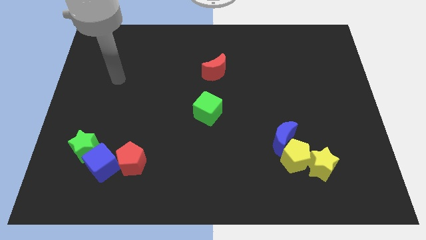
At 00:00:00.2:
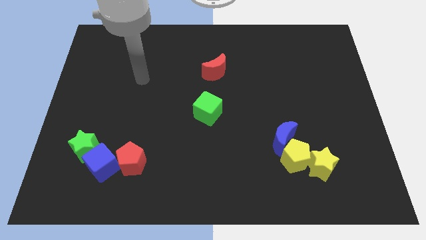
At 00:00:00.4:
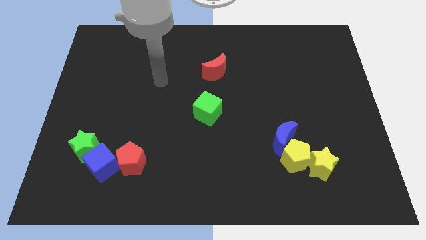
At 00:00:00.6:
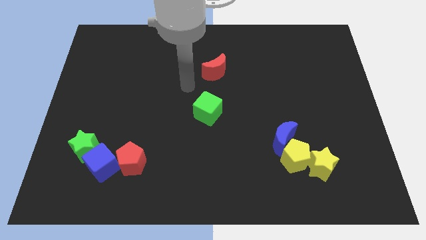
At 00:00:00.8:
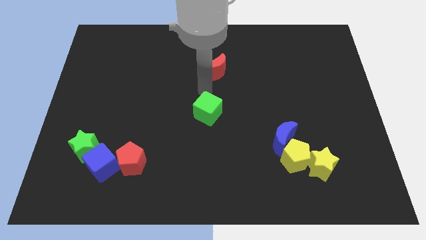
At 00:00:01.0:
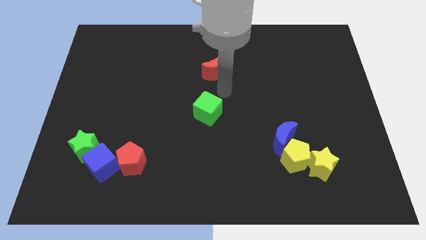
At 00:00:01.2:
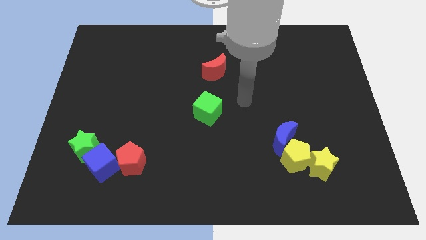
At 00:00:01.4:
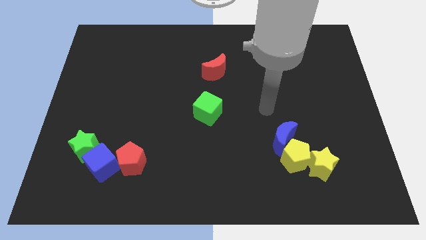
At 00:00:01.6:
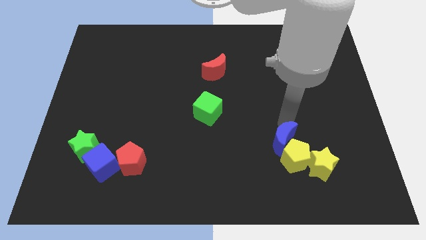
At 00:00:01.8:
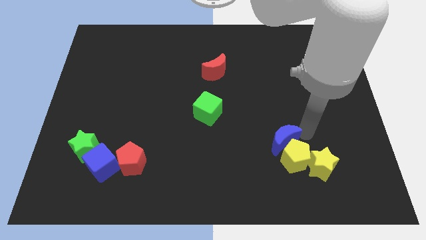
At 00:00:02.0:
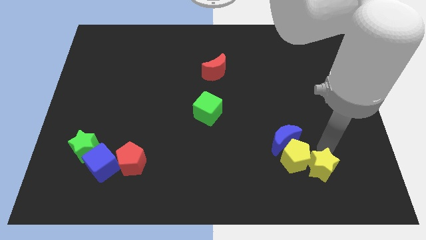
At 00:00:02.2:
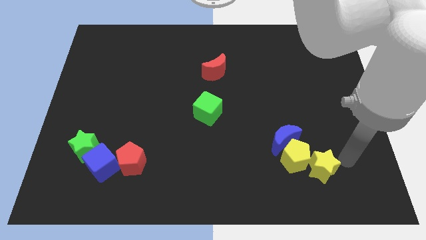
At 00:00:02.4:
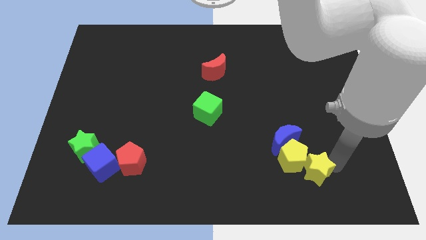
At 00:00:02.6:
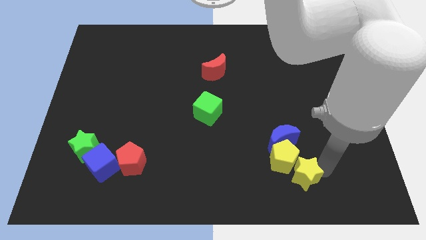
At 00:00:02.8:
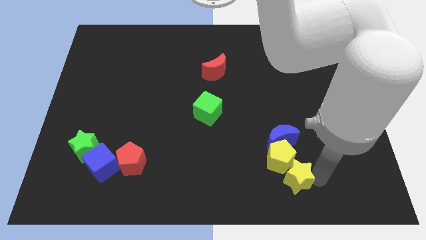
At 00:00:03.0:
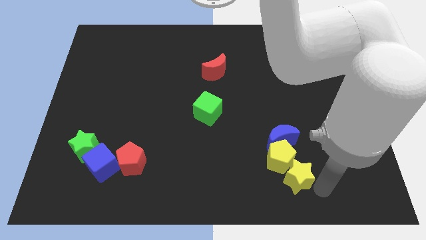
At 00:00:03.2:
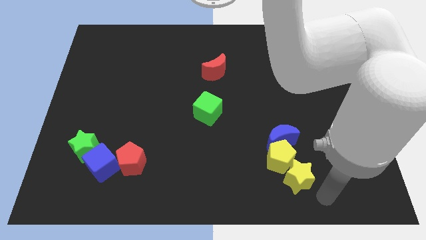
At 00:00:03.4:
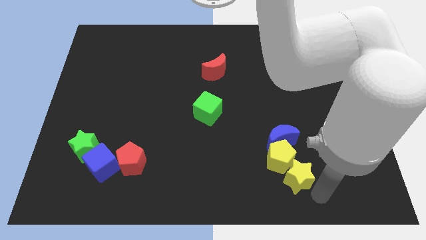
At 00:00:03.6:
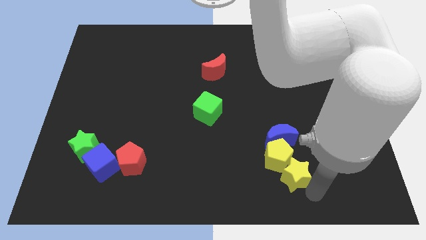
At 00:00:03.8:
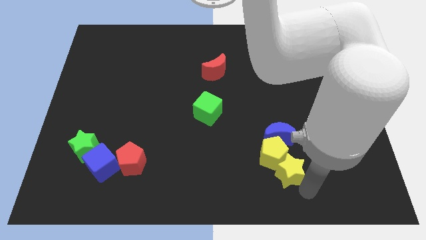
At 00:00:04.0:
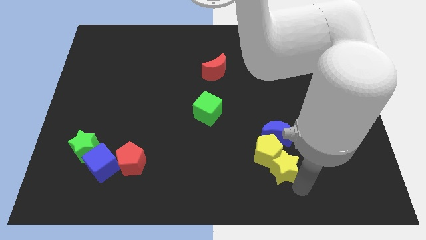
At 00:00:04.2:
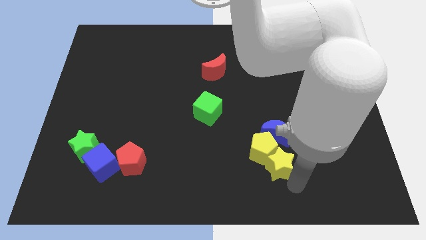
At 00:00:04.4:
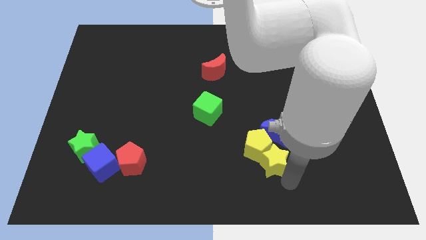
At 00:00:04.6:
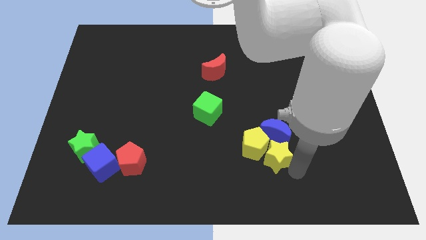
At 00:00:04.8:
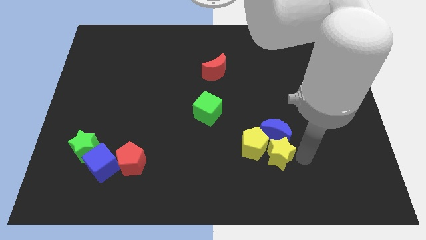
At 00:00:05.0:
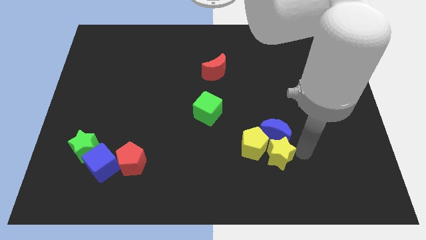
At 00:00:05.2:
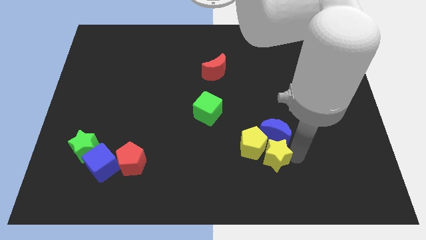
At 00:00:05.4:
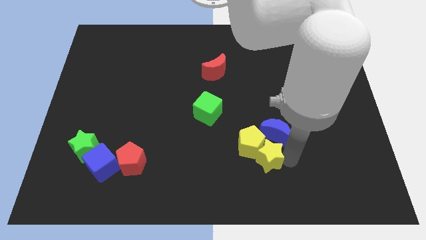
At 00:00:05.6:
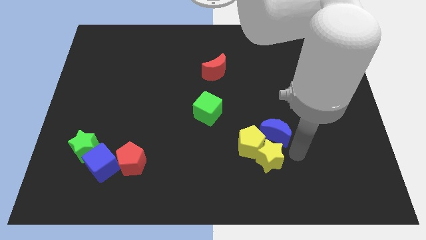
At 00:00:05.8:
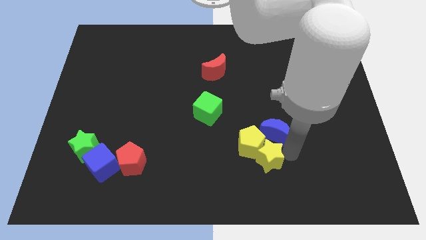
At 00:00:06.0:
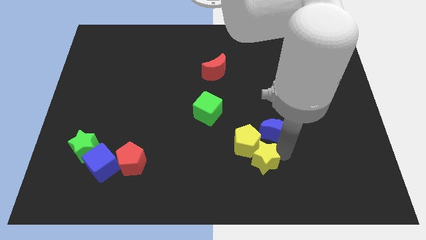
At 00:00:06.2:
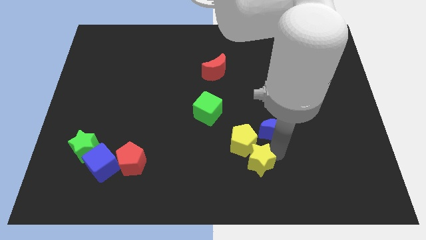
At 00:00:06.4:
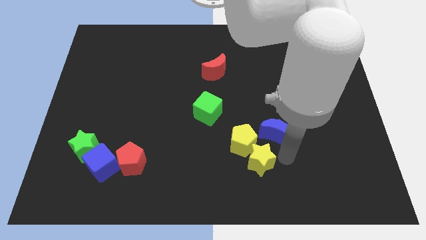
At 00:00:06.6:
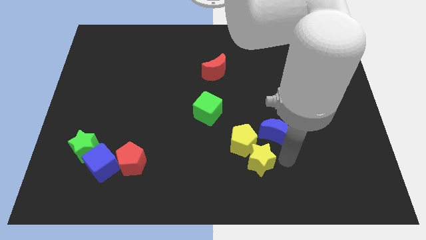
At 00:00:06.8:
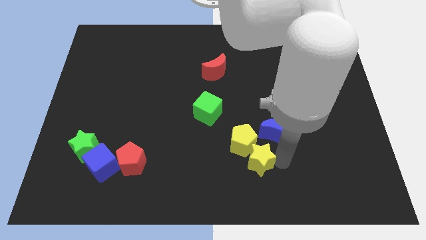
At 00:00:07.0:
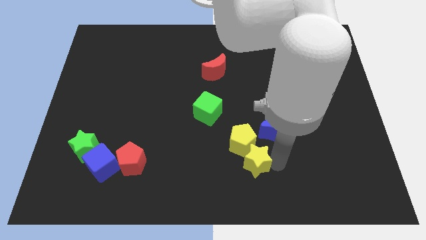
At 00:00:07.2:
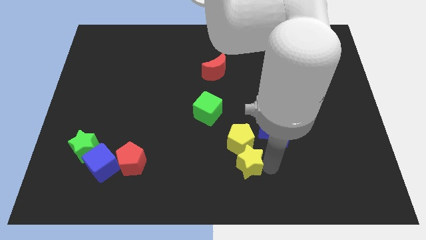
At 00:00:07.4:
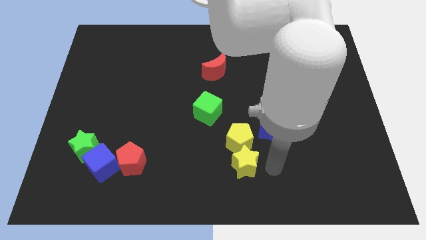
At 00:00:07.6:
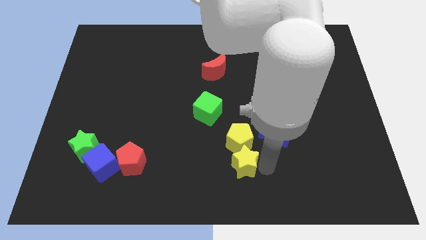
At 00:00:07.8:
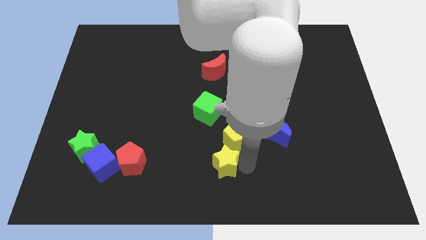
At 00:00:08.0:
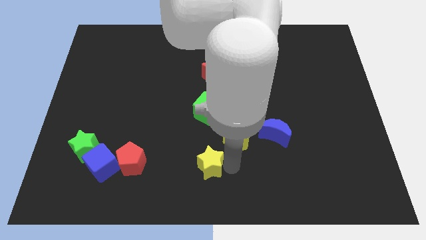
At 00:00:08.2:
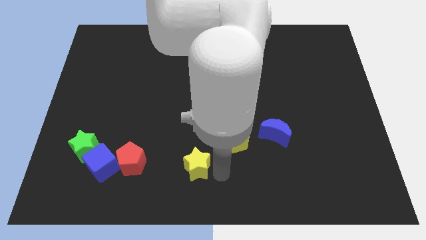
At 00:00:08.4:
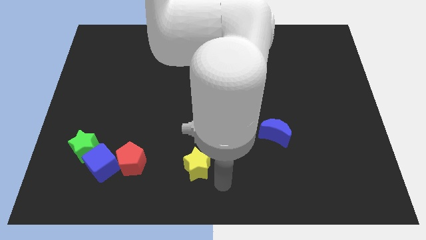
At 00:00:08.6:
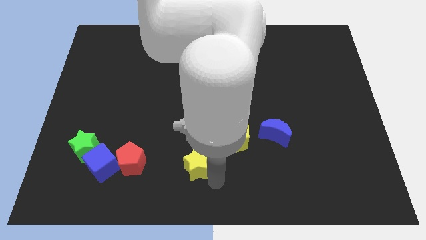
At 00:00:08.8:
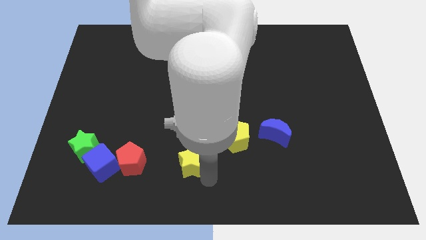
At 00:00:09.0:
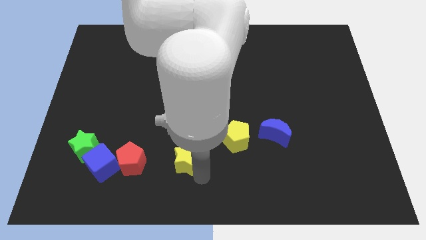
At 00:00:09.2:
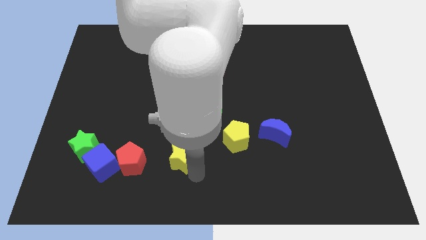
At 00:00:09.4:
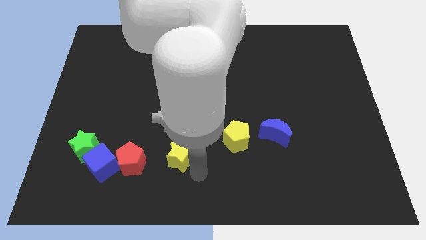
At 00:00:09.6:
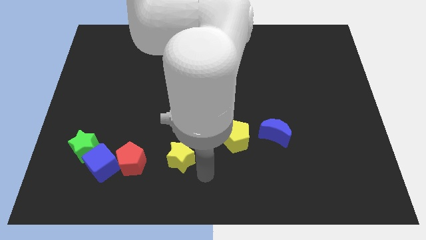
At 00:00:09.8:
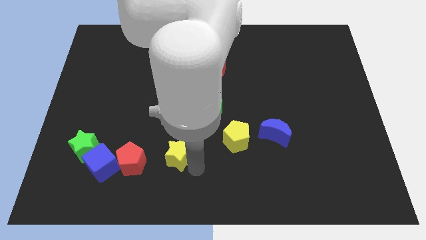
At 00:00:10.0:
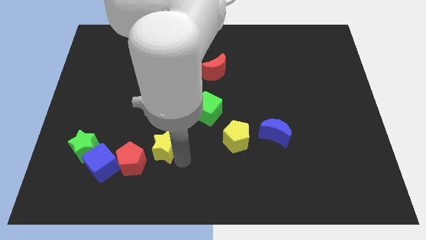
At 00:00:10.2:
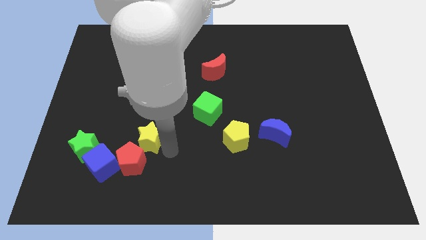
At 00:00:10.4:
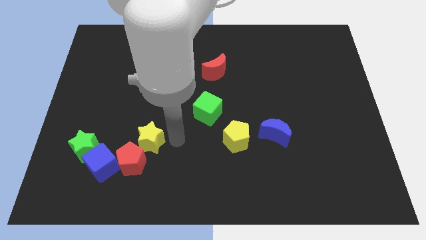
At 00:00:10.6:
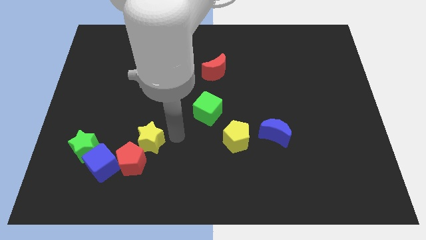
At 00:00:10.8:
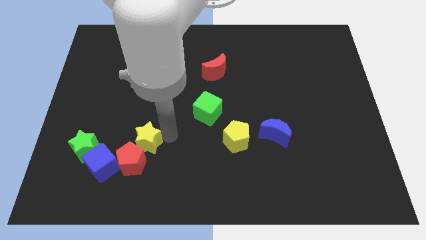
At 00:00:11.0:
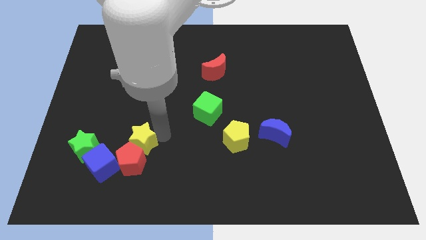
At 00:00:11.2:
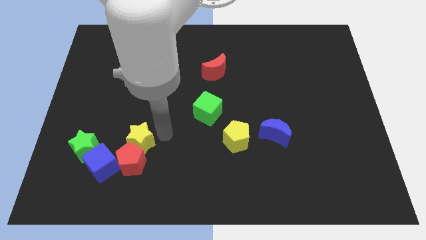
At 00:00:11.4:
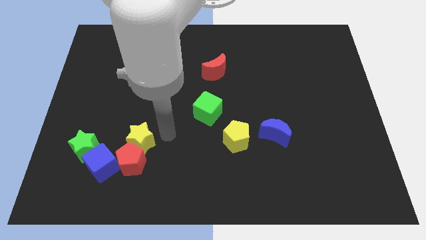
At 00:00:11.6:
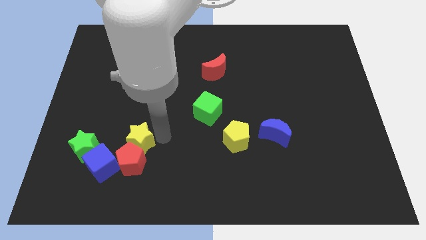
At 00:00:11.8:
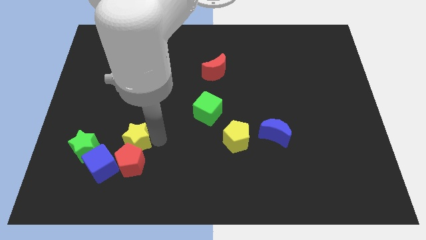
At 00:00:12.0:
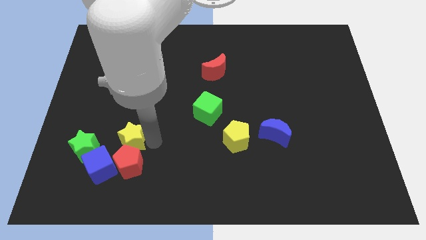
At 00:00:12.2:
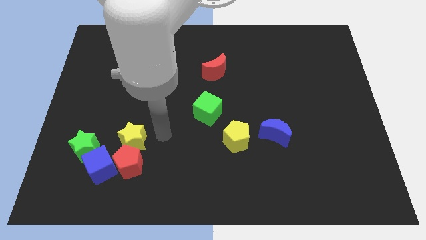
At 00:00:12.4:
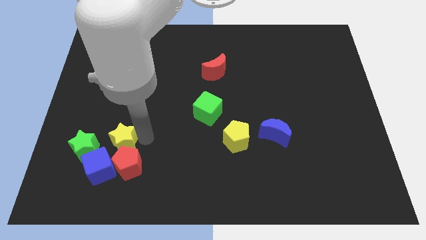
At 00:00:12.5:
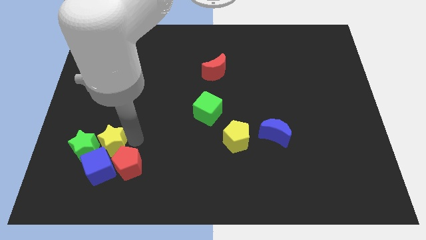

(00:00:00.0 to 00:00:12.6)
push the yellow star next to the green star

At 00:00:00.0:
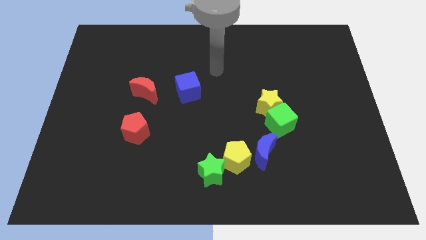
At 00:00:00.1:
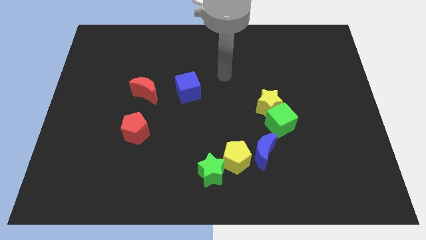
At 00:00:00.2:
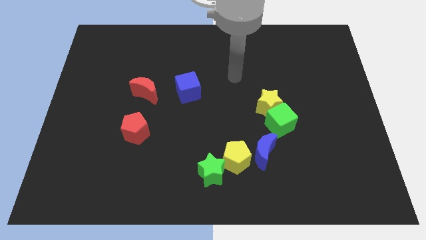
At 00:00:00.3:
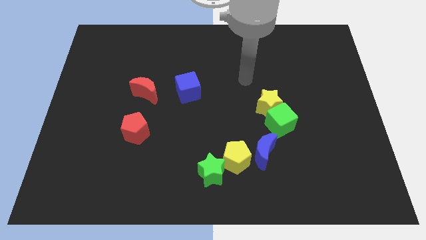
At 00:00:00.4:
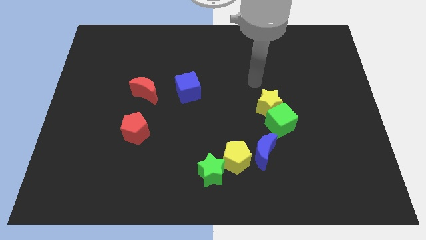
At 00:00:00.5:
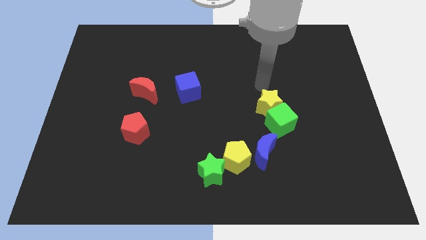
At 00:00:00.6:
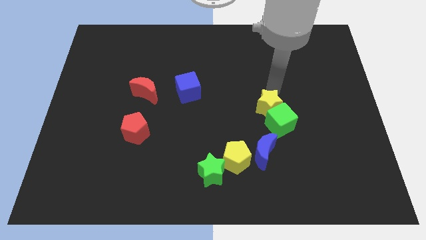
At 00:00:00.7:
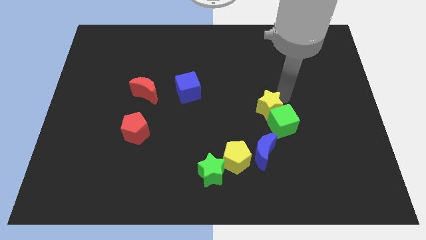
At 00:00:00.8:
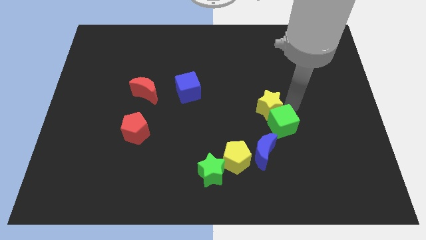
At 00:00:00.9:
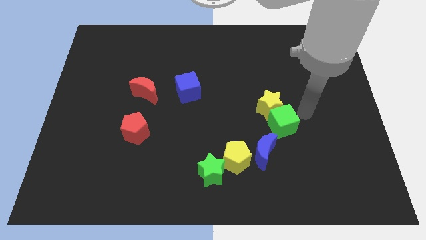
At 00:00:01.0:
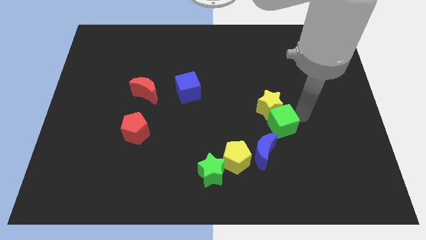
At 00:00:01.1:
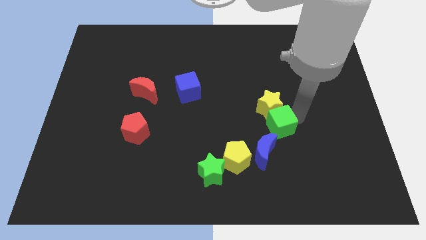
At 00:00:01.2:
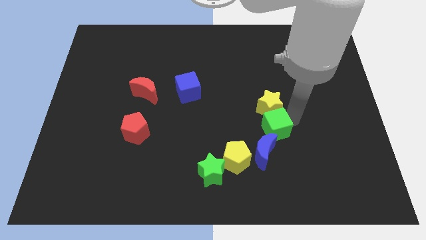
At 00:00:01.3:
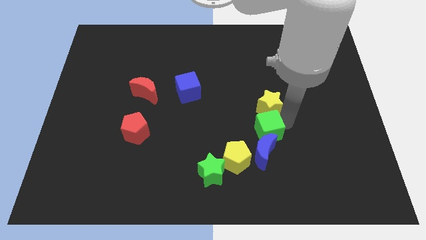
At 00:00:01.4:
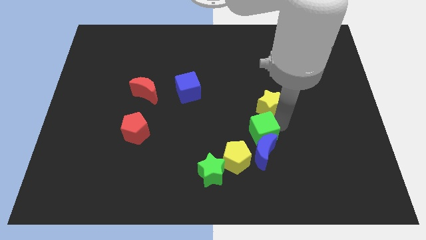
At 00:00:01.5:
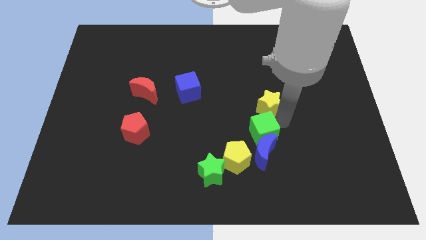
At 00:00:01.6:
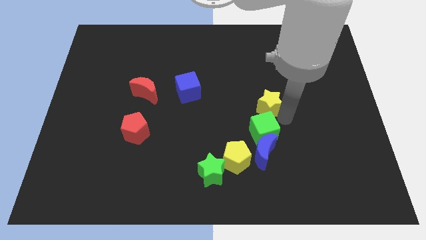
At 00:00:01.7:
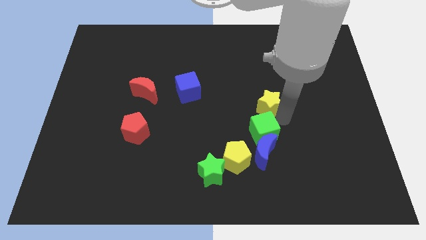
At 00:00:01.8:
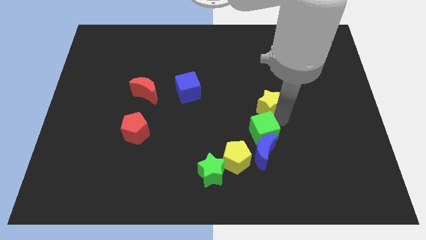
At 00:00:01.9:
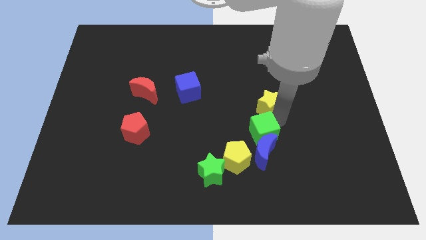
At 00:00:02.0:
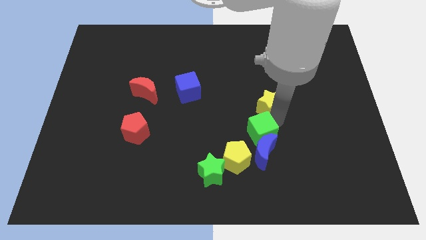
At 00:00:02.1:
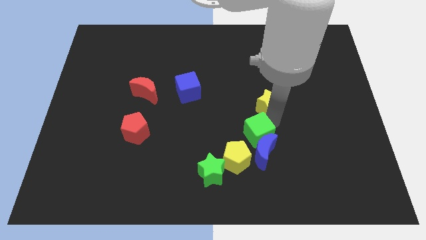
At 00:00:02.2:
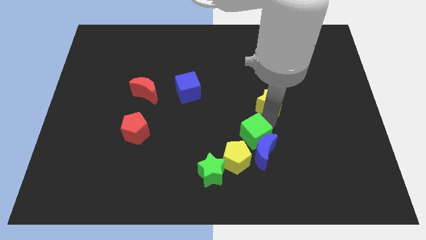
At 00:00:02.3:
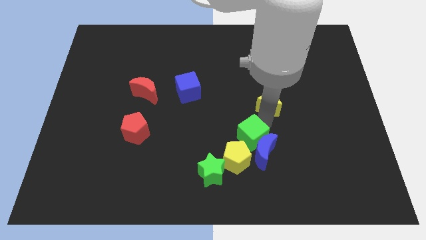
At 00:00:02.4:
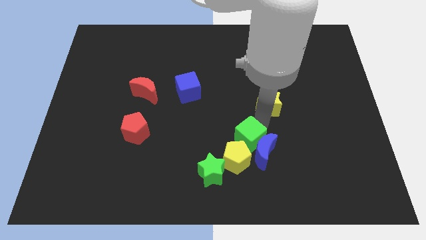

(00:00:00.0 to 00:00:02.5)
put the green cube to the yellow pentagon
